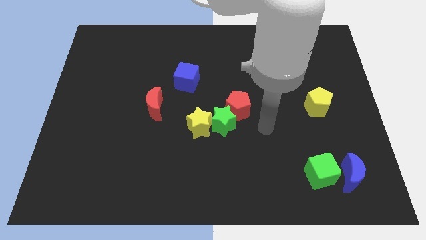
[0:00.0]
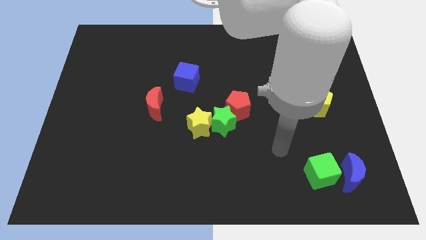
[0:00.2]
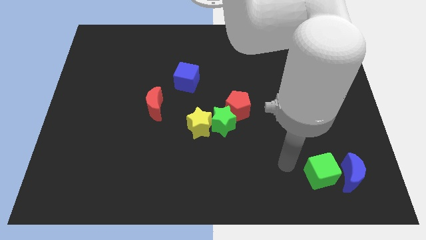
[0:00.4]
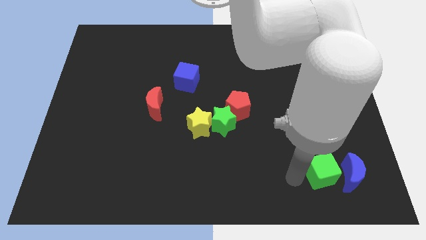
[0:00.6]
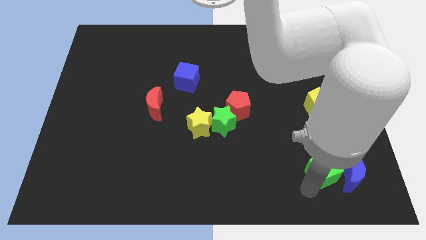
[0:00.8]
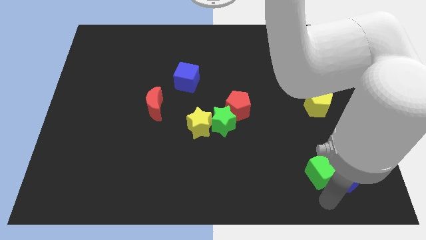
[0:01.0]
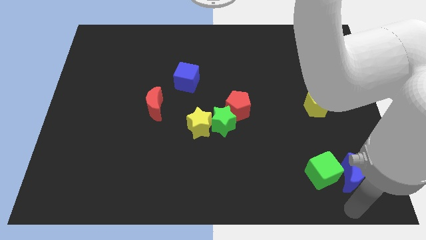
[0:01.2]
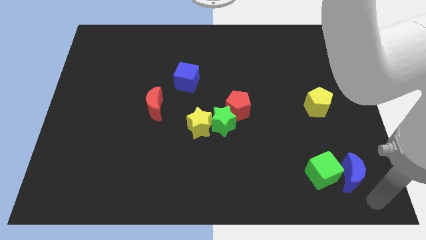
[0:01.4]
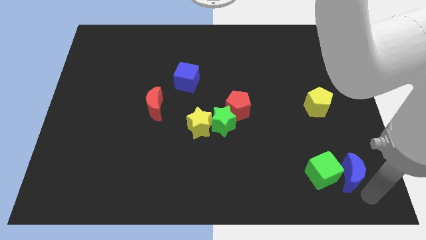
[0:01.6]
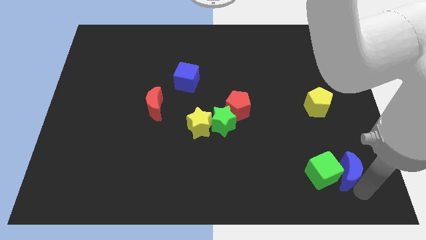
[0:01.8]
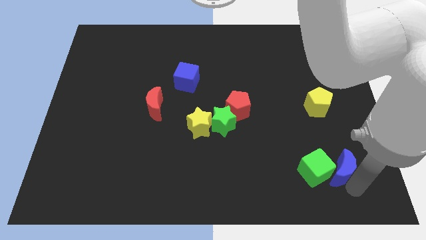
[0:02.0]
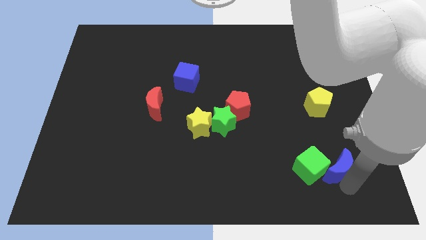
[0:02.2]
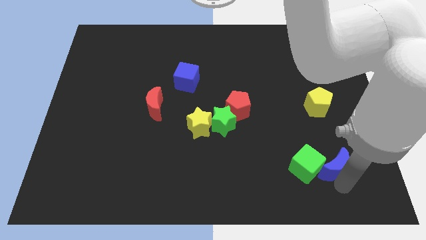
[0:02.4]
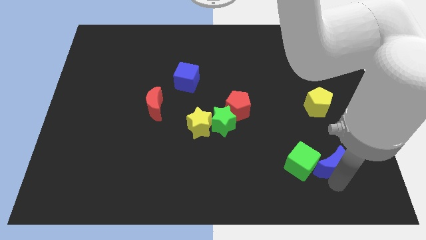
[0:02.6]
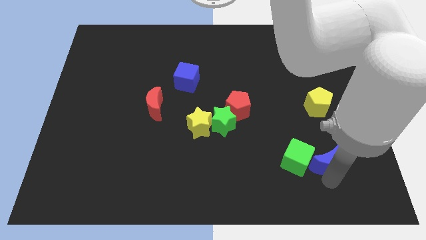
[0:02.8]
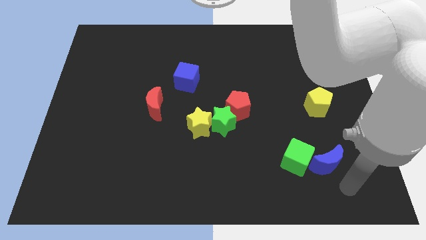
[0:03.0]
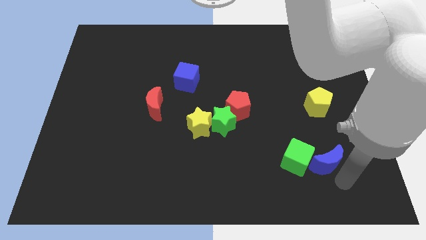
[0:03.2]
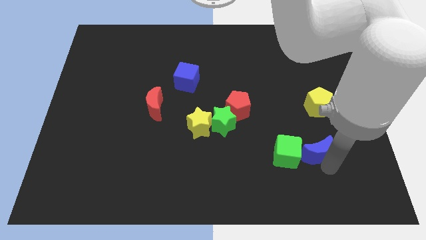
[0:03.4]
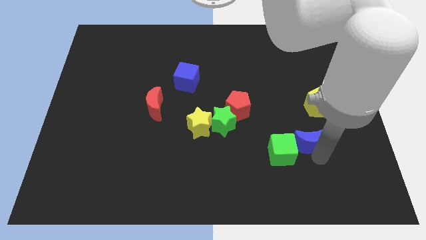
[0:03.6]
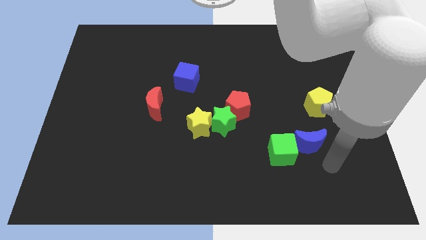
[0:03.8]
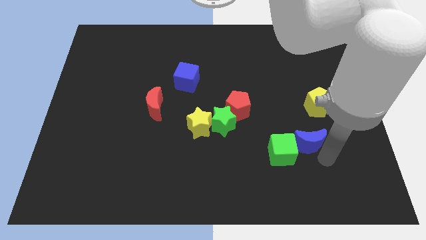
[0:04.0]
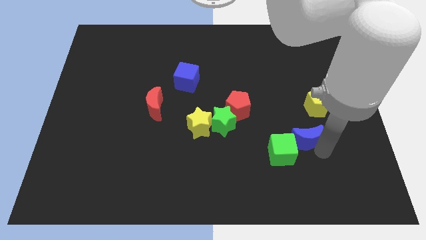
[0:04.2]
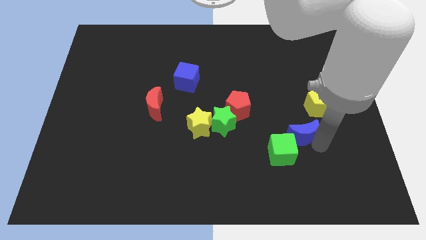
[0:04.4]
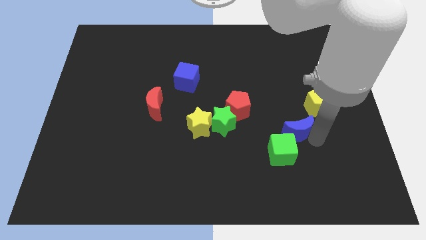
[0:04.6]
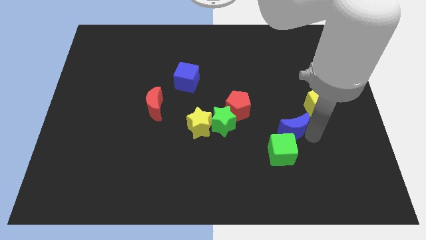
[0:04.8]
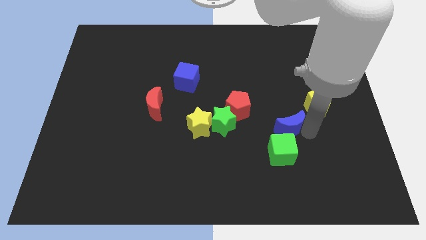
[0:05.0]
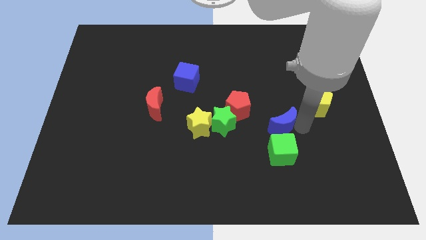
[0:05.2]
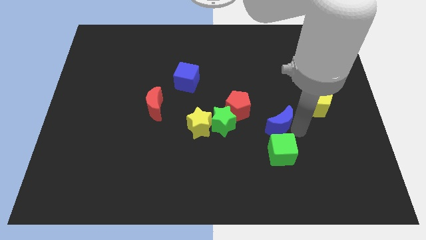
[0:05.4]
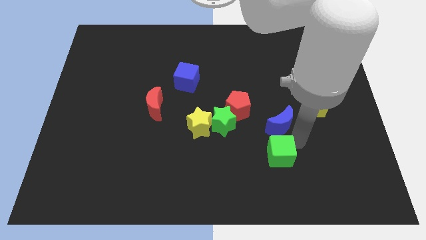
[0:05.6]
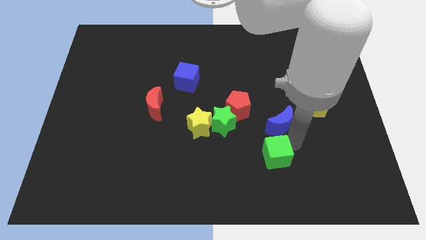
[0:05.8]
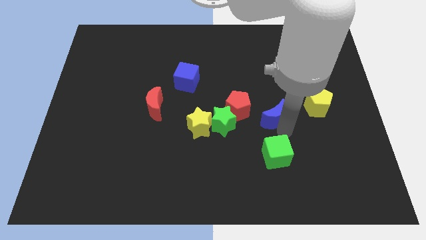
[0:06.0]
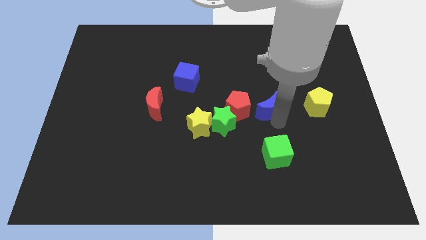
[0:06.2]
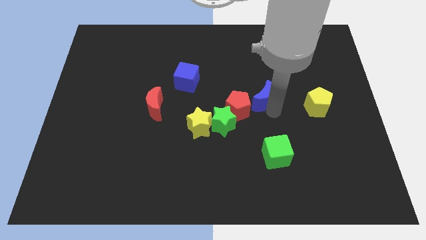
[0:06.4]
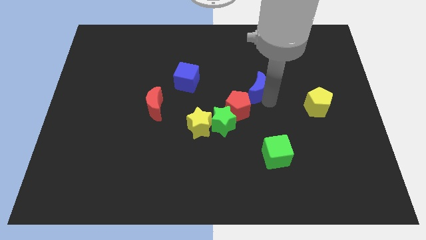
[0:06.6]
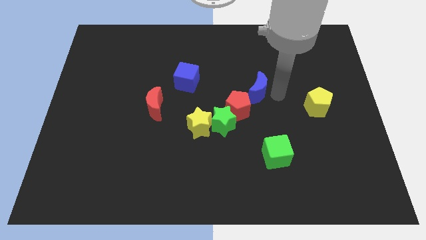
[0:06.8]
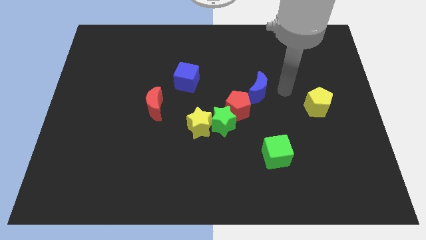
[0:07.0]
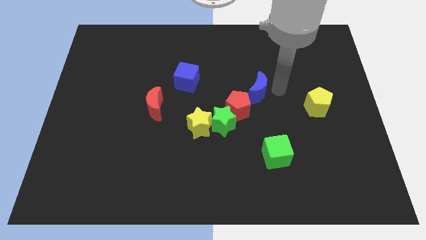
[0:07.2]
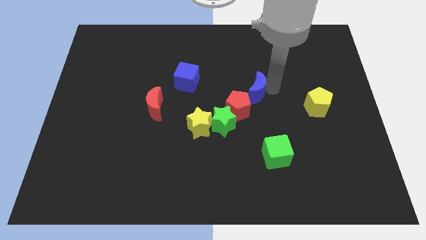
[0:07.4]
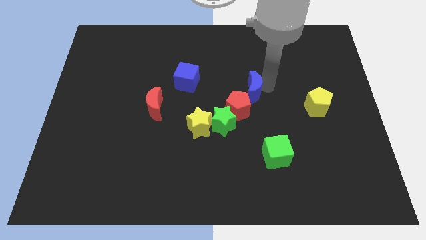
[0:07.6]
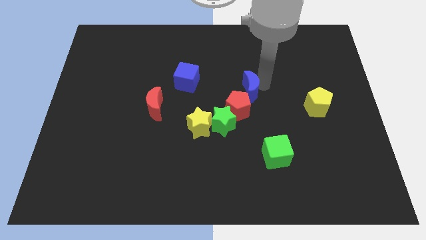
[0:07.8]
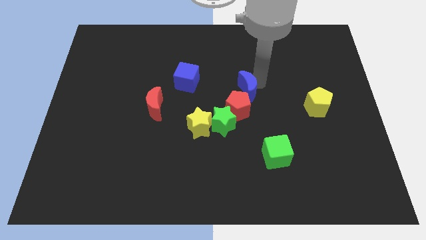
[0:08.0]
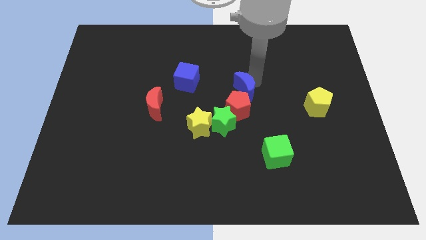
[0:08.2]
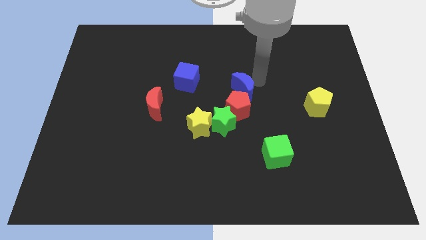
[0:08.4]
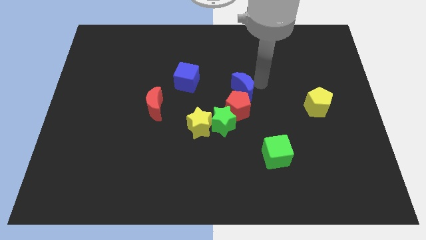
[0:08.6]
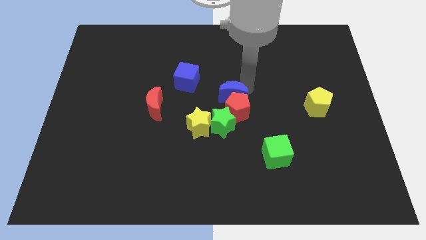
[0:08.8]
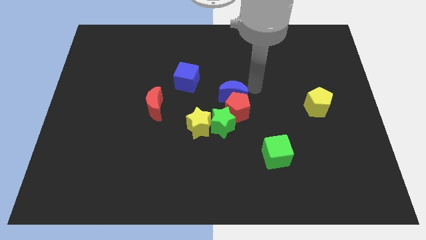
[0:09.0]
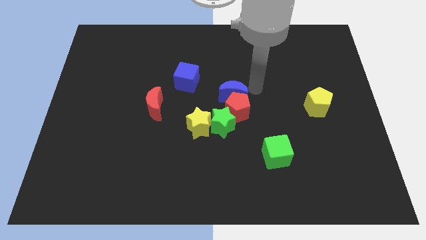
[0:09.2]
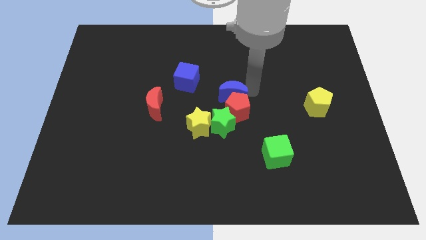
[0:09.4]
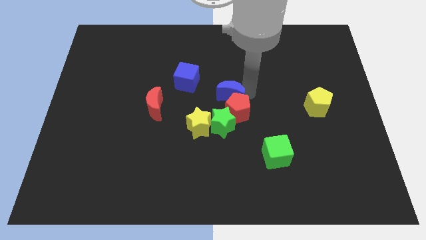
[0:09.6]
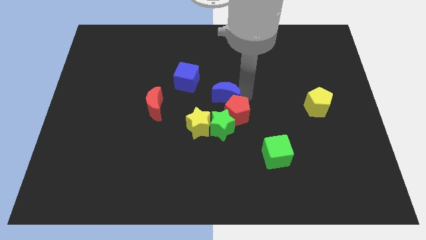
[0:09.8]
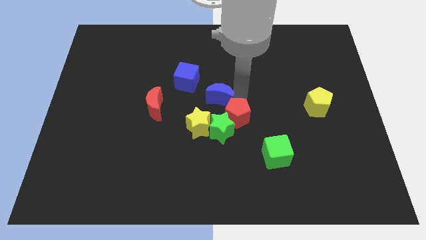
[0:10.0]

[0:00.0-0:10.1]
put the blue moon right of the red moon

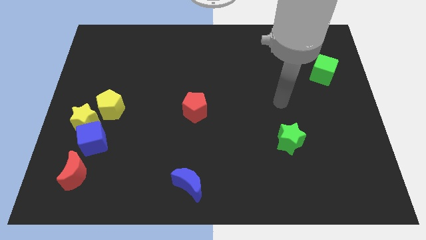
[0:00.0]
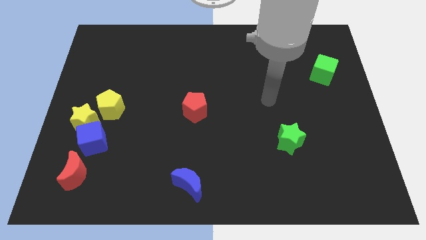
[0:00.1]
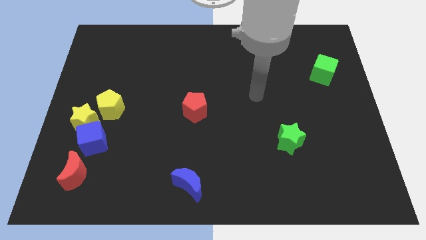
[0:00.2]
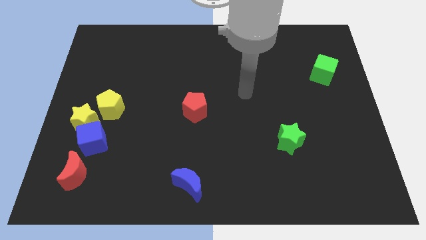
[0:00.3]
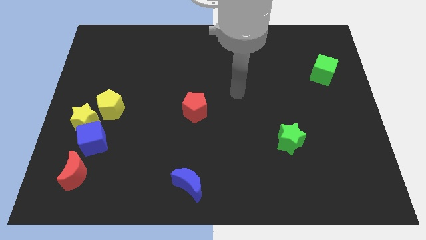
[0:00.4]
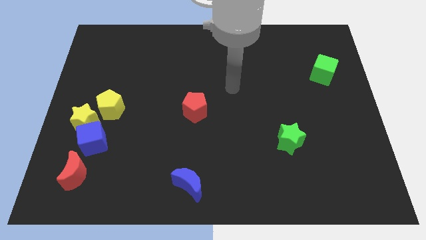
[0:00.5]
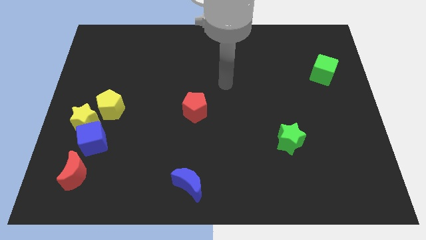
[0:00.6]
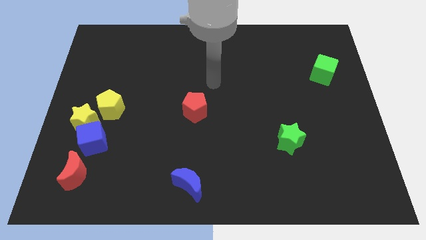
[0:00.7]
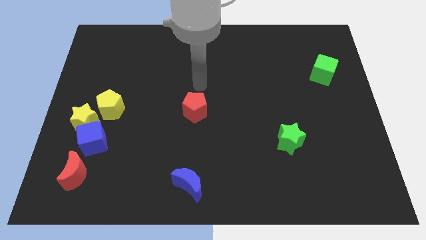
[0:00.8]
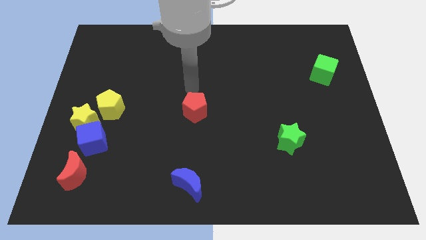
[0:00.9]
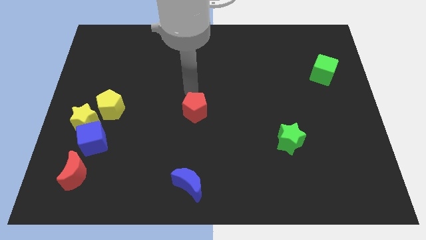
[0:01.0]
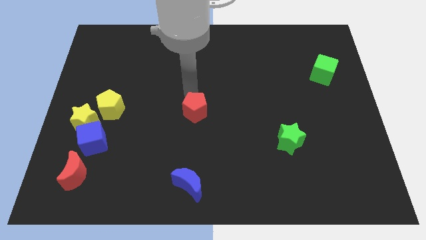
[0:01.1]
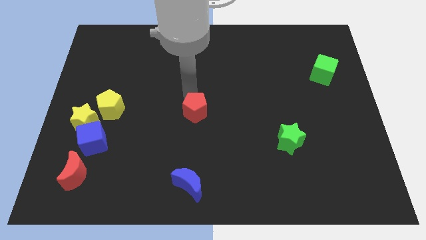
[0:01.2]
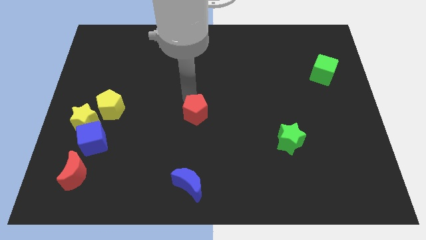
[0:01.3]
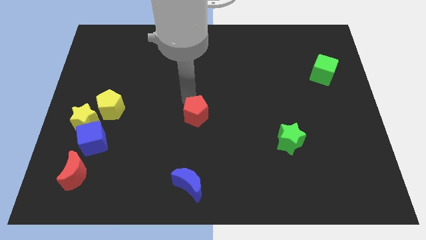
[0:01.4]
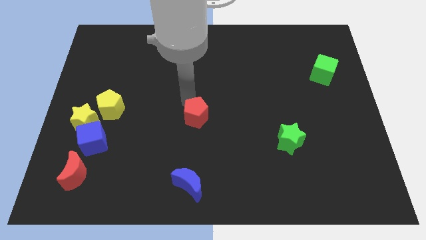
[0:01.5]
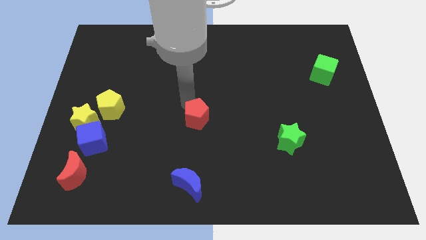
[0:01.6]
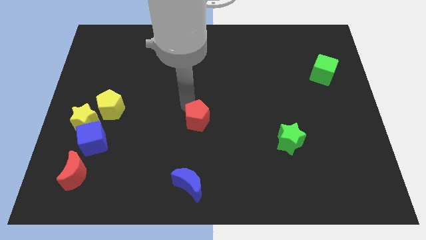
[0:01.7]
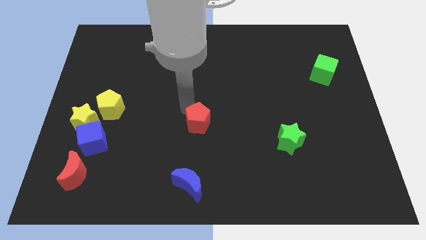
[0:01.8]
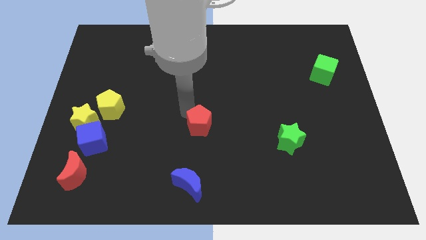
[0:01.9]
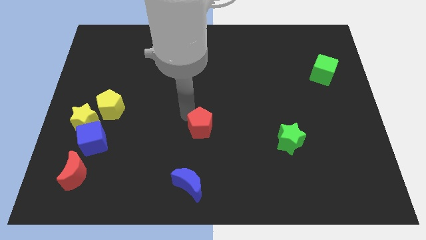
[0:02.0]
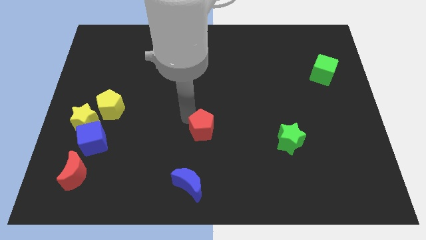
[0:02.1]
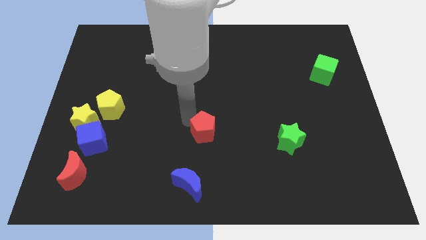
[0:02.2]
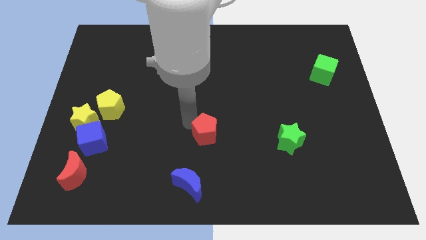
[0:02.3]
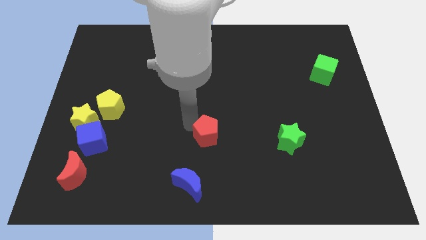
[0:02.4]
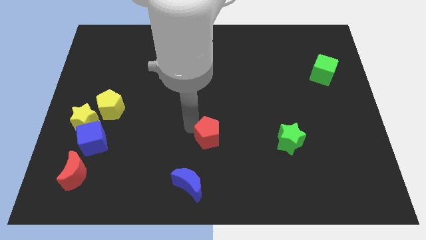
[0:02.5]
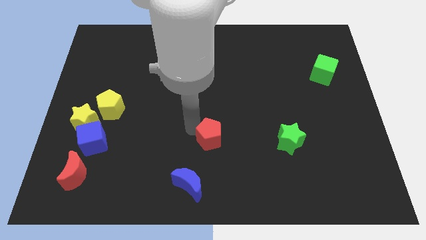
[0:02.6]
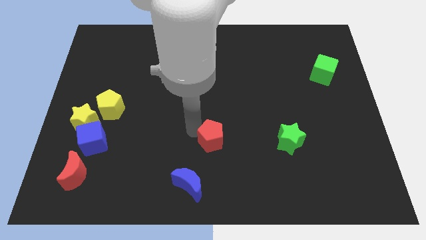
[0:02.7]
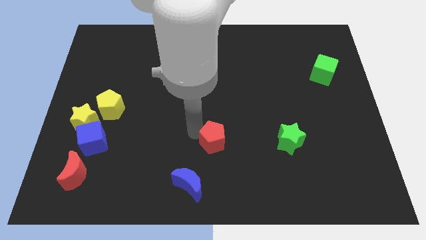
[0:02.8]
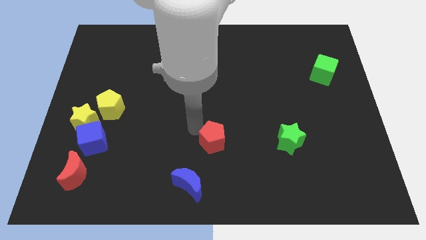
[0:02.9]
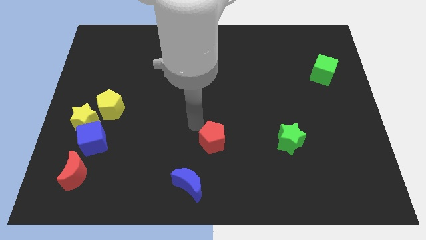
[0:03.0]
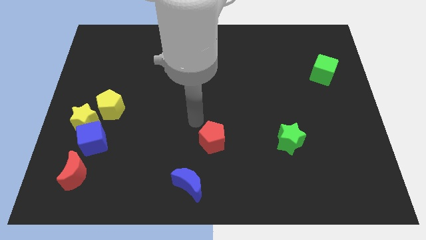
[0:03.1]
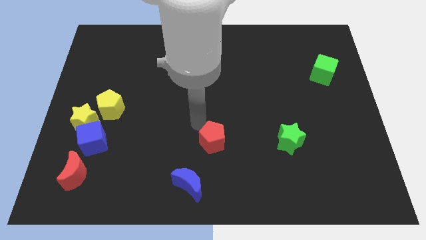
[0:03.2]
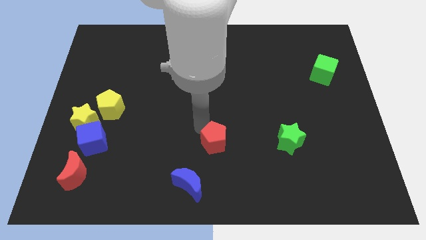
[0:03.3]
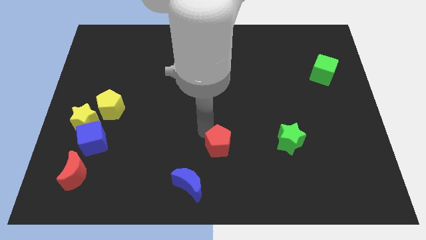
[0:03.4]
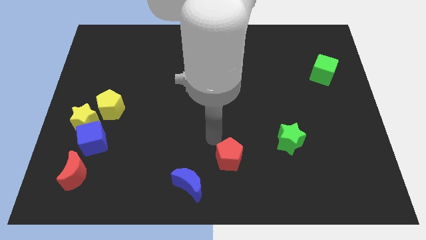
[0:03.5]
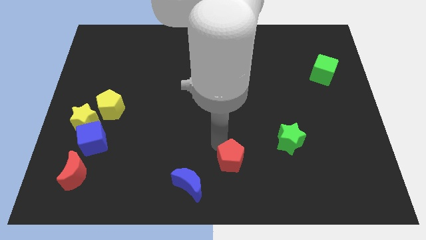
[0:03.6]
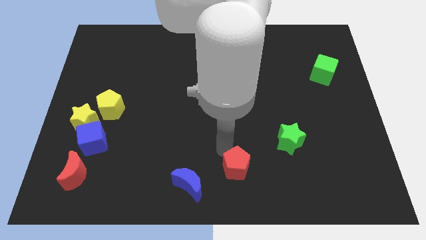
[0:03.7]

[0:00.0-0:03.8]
put the red pentagon to the right of the blue moon
